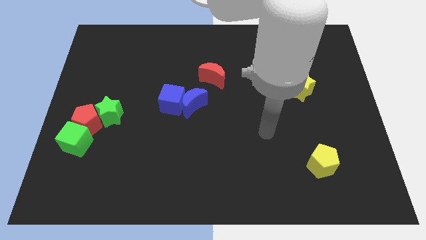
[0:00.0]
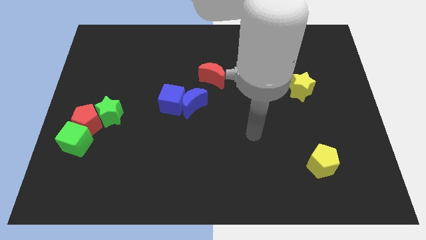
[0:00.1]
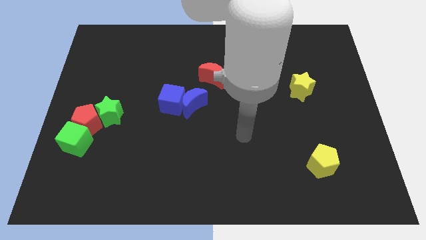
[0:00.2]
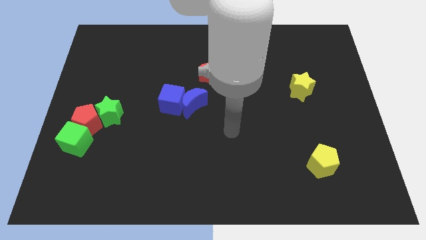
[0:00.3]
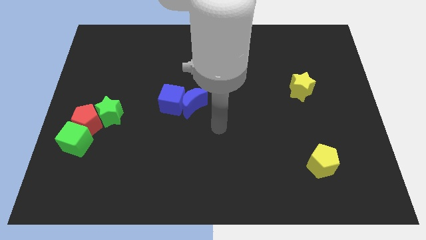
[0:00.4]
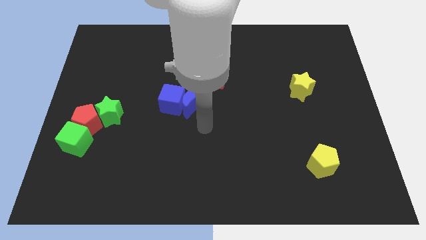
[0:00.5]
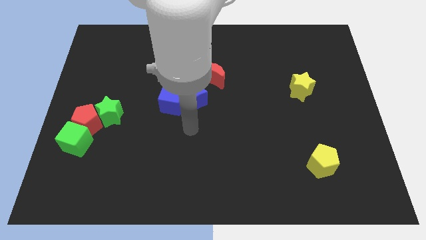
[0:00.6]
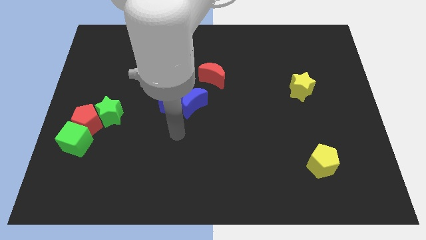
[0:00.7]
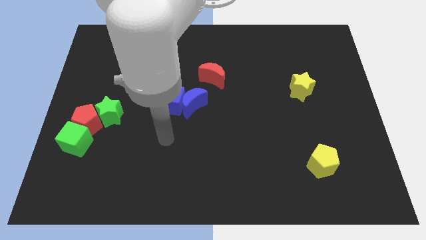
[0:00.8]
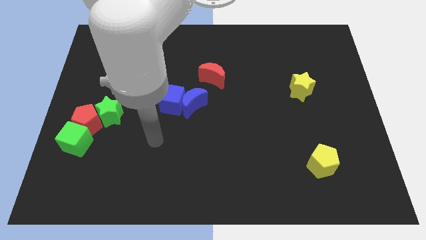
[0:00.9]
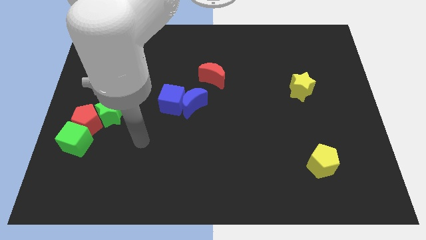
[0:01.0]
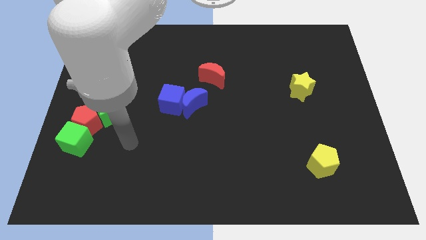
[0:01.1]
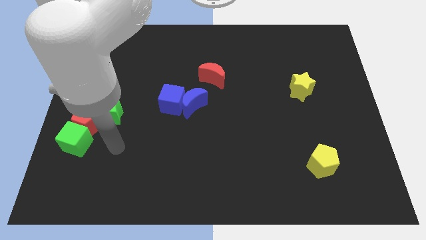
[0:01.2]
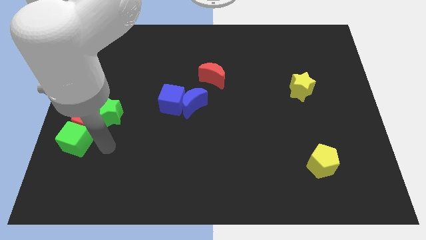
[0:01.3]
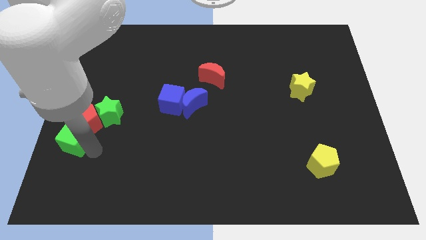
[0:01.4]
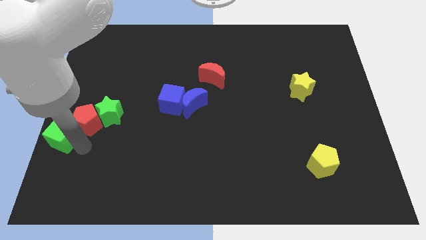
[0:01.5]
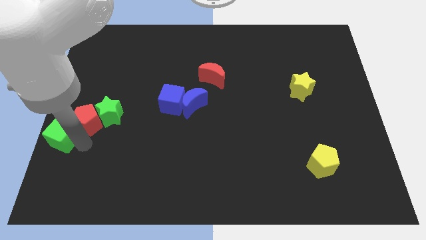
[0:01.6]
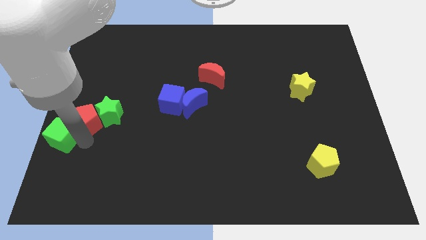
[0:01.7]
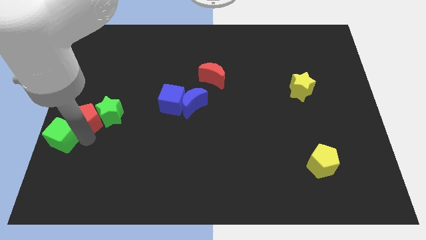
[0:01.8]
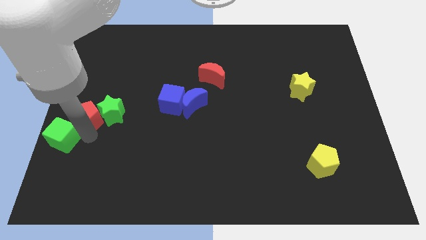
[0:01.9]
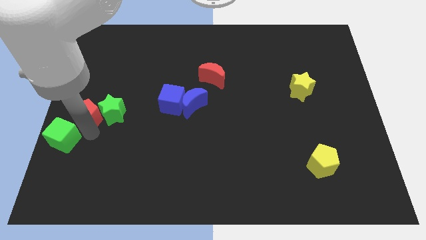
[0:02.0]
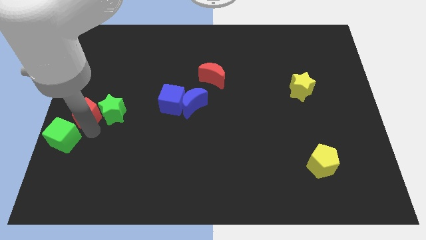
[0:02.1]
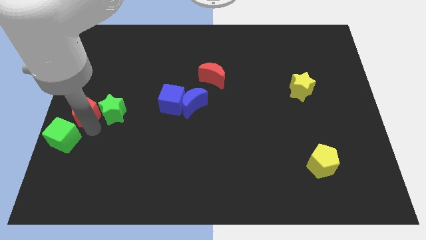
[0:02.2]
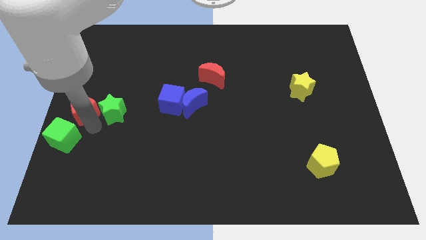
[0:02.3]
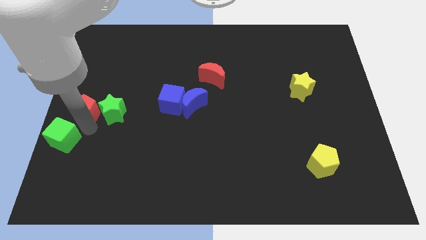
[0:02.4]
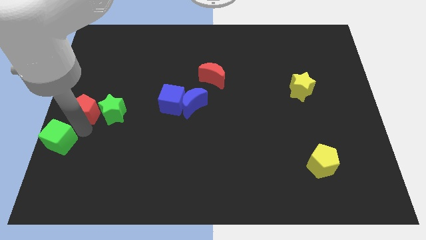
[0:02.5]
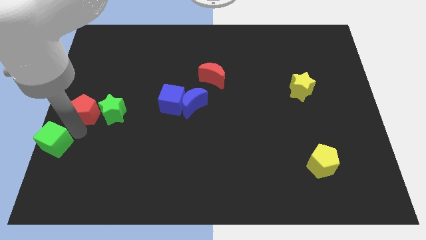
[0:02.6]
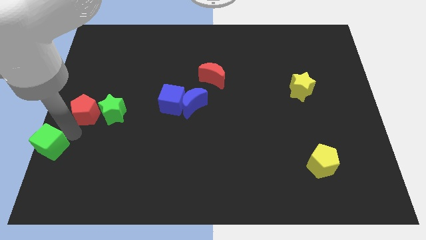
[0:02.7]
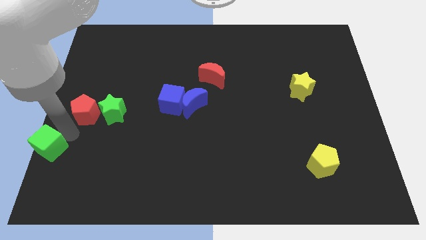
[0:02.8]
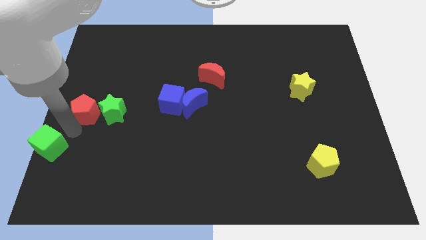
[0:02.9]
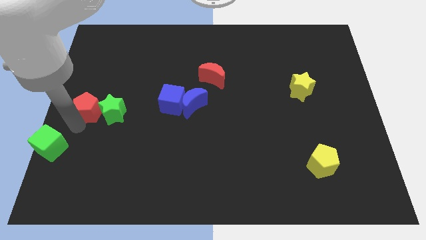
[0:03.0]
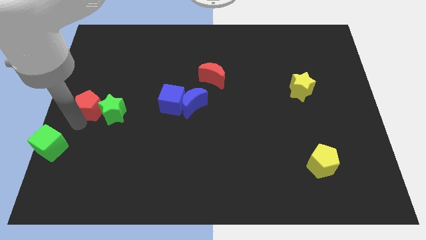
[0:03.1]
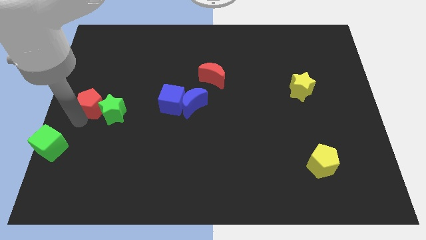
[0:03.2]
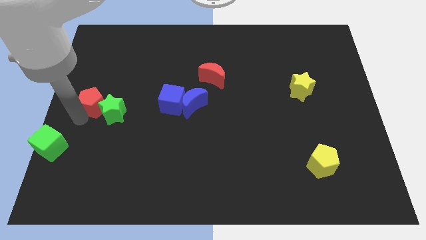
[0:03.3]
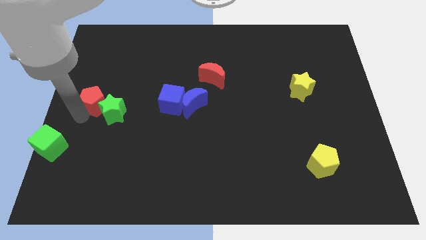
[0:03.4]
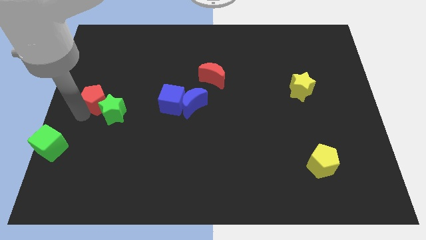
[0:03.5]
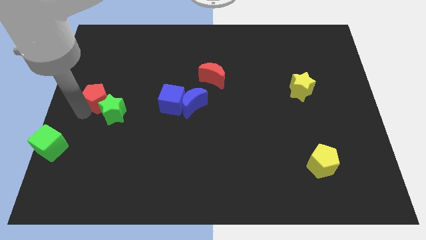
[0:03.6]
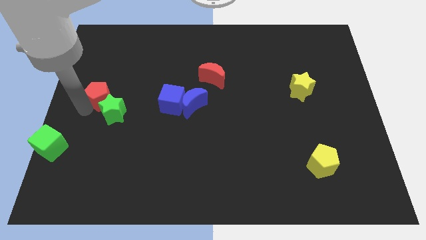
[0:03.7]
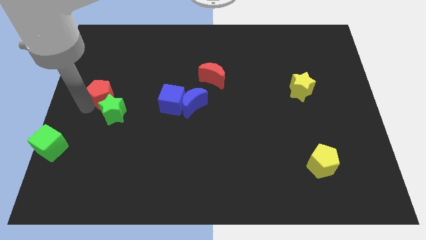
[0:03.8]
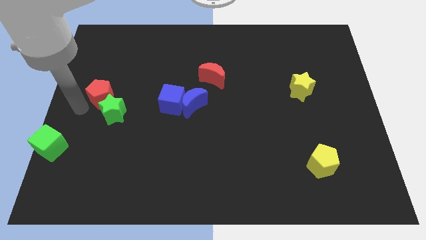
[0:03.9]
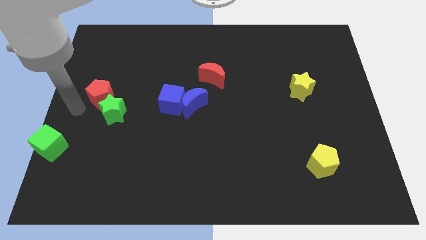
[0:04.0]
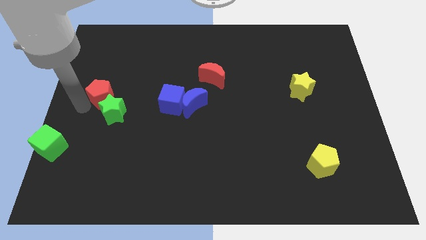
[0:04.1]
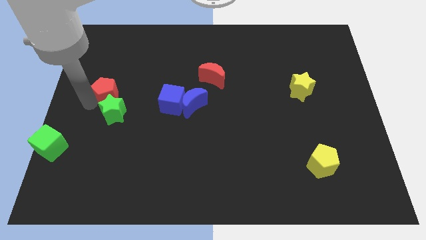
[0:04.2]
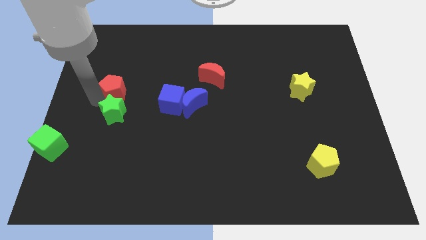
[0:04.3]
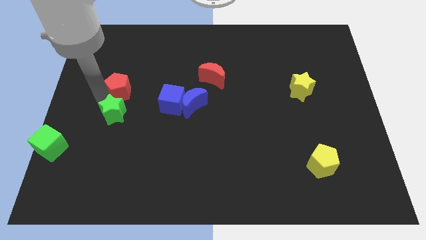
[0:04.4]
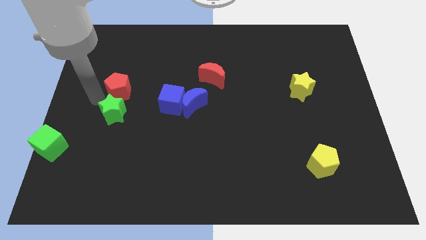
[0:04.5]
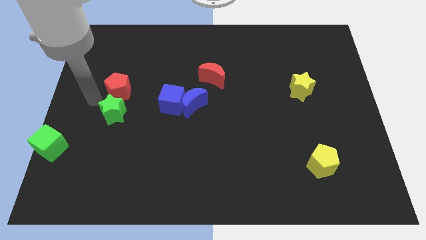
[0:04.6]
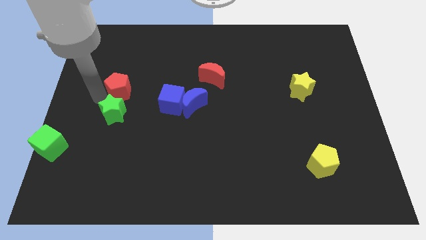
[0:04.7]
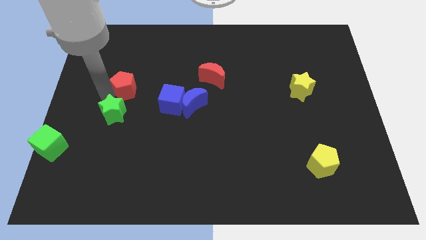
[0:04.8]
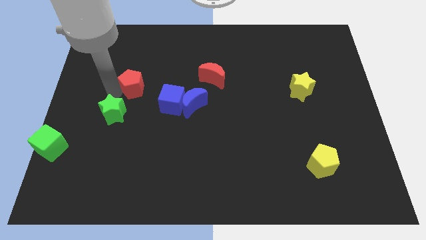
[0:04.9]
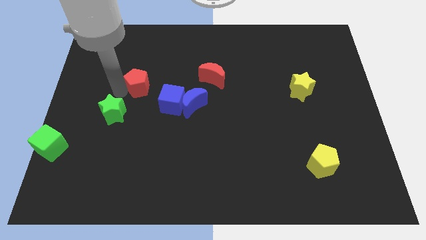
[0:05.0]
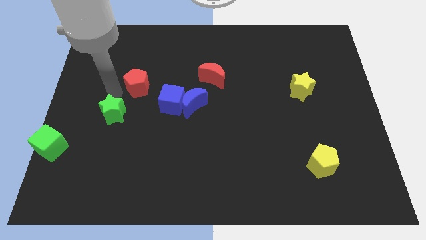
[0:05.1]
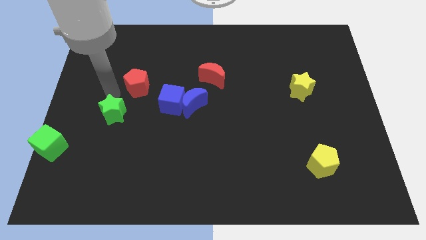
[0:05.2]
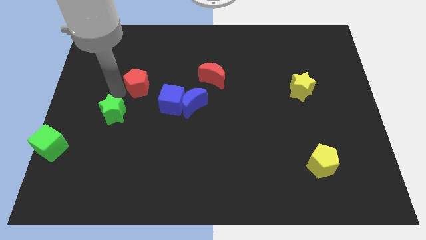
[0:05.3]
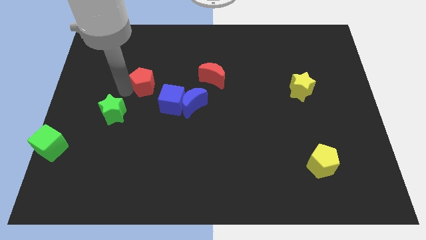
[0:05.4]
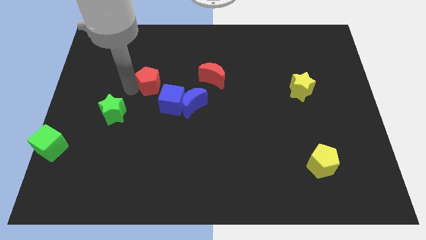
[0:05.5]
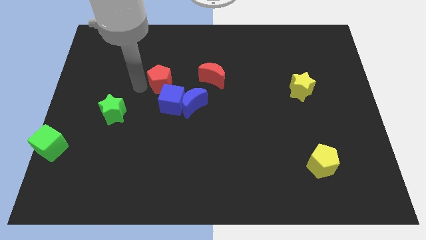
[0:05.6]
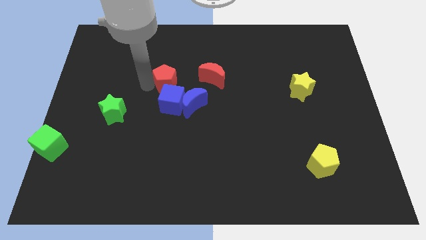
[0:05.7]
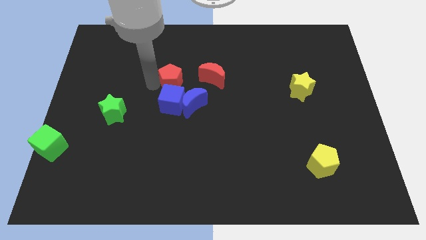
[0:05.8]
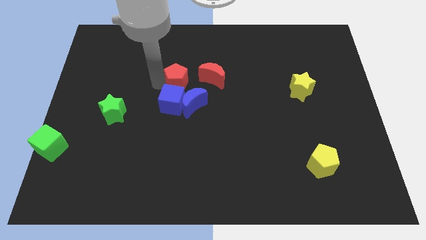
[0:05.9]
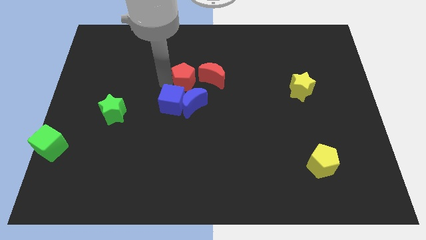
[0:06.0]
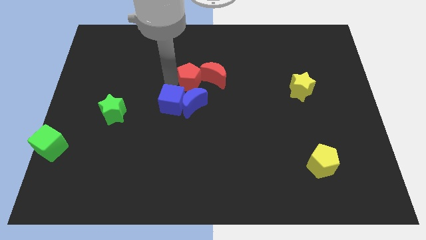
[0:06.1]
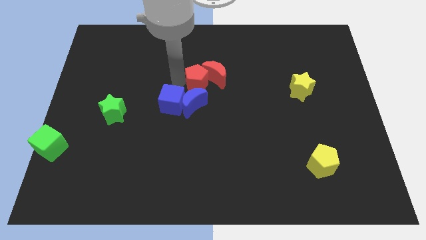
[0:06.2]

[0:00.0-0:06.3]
put the red pentagon towards the red moon

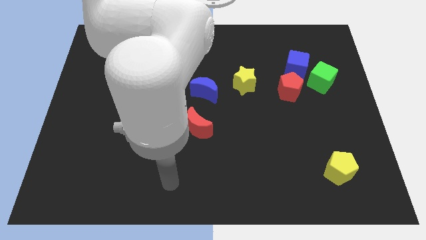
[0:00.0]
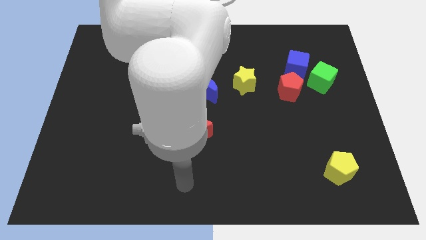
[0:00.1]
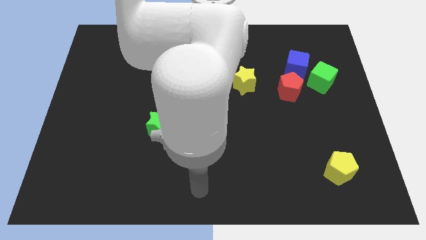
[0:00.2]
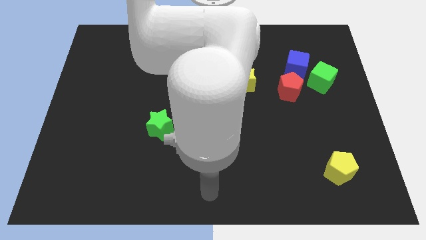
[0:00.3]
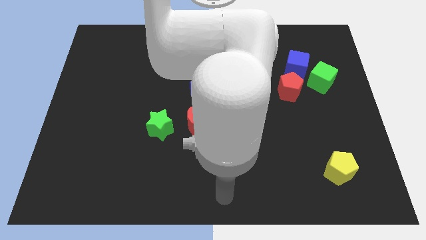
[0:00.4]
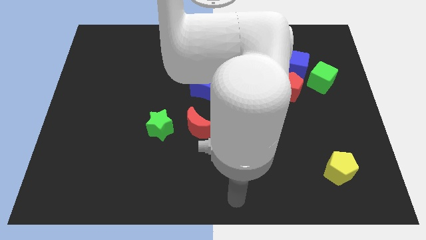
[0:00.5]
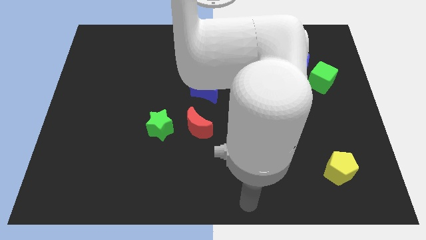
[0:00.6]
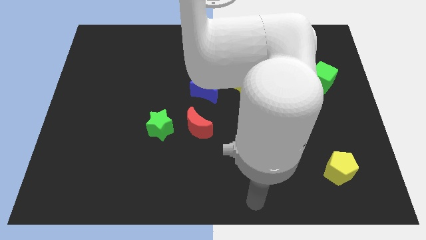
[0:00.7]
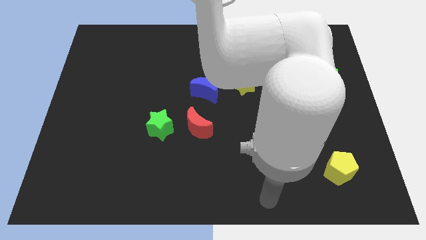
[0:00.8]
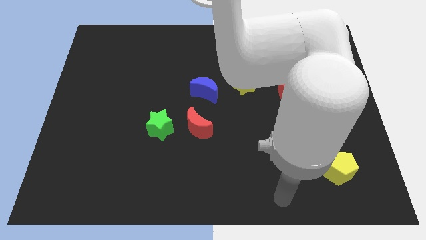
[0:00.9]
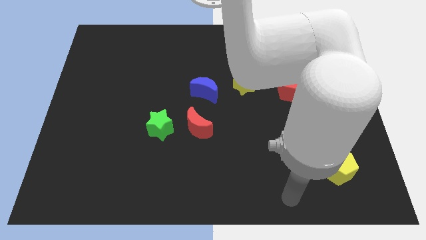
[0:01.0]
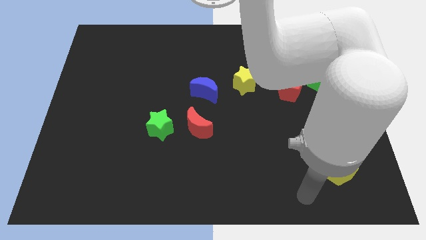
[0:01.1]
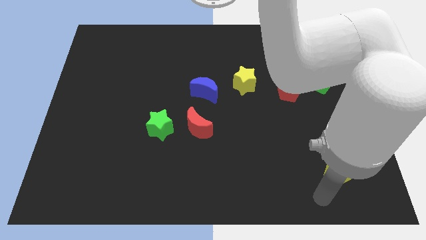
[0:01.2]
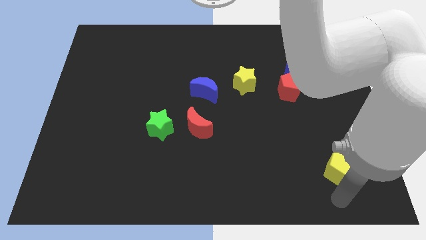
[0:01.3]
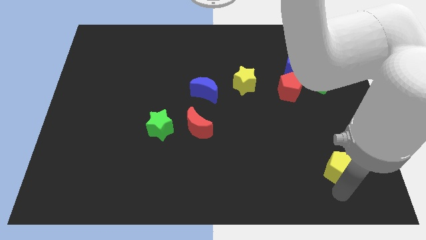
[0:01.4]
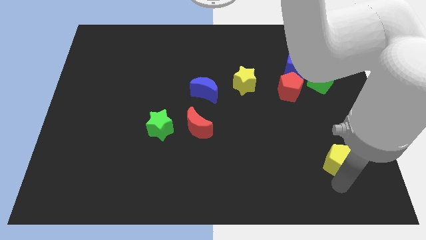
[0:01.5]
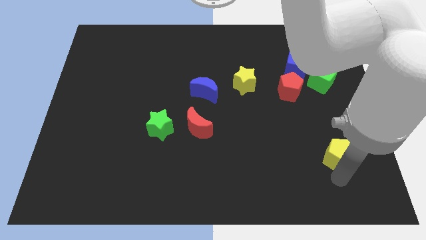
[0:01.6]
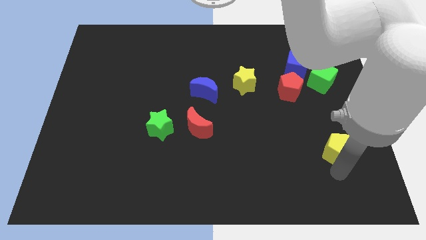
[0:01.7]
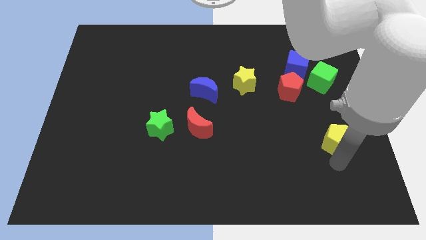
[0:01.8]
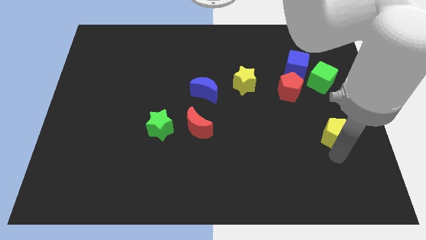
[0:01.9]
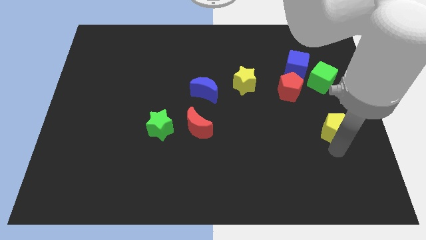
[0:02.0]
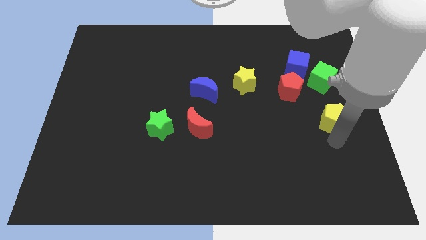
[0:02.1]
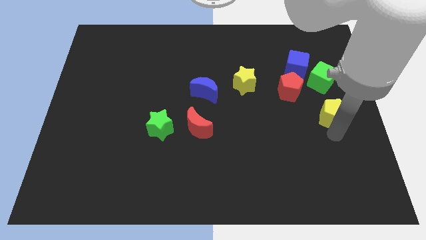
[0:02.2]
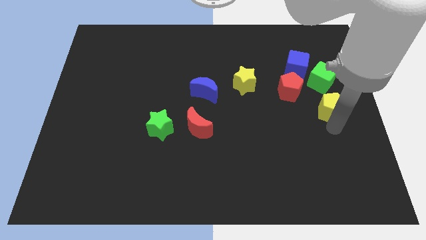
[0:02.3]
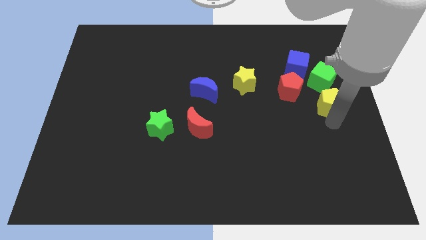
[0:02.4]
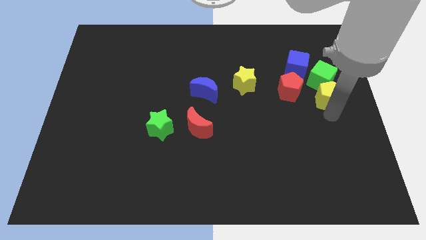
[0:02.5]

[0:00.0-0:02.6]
move the yellow pentagon close to the green cube
